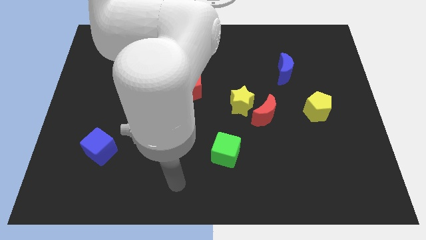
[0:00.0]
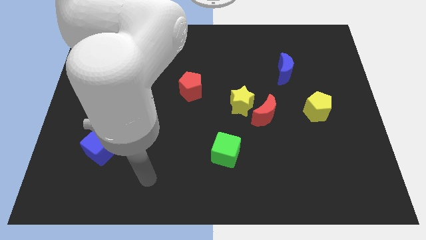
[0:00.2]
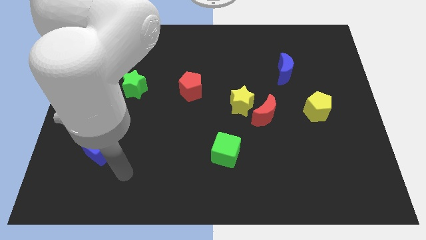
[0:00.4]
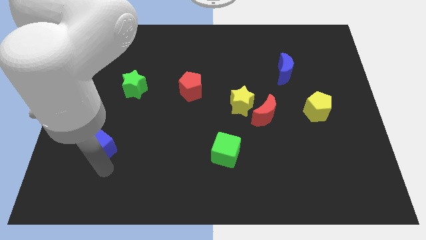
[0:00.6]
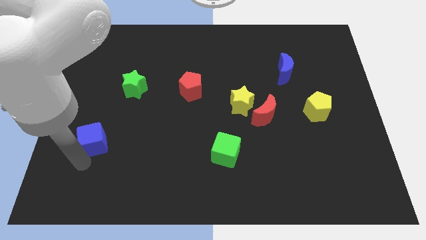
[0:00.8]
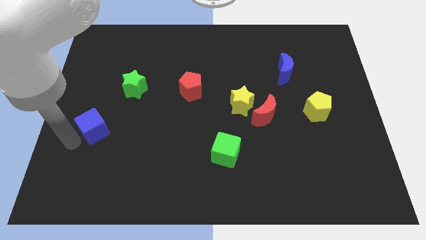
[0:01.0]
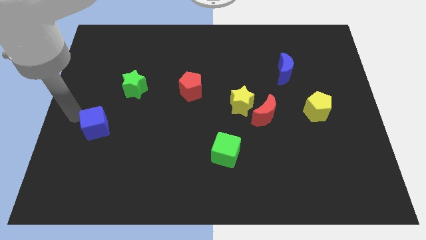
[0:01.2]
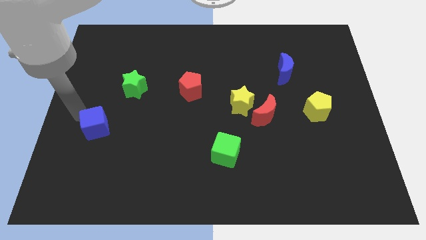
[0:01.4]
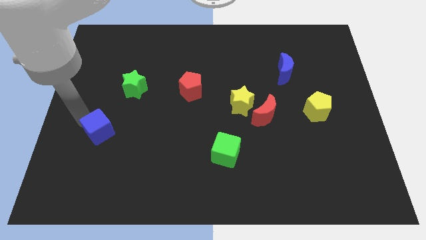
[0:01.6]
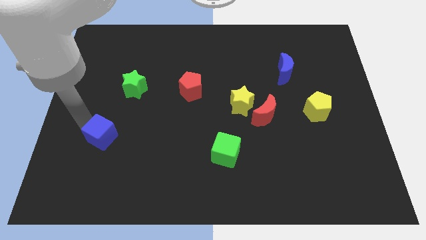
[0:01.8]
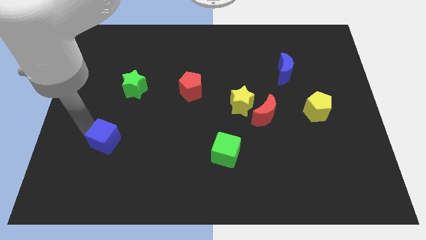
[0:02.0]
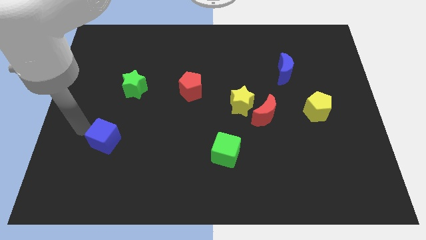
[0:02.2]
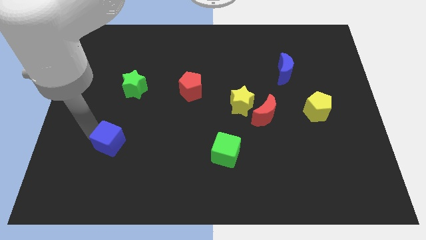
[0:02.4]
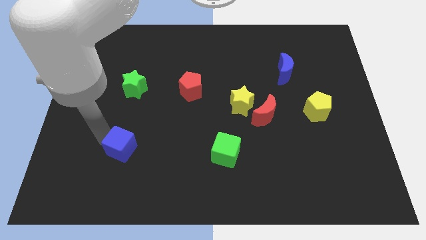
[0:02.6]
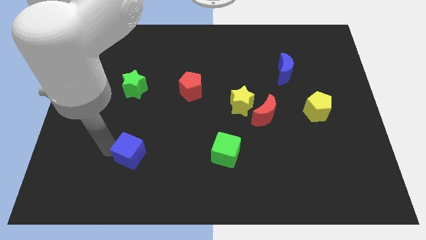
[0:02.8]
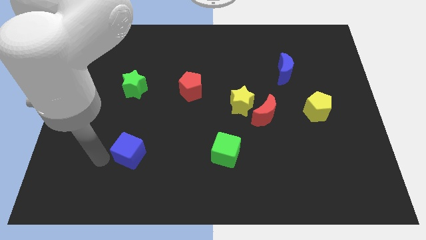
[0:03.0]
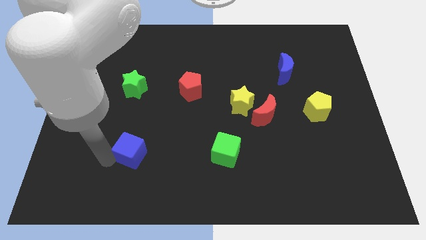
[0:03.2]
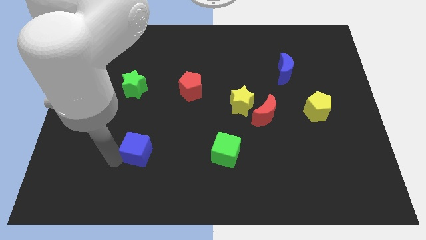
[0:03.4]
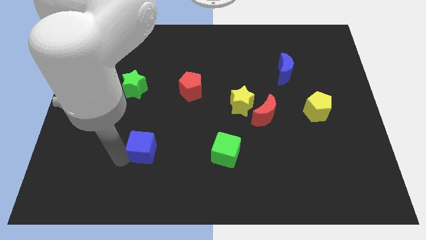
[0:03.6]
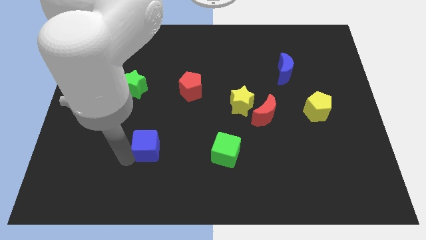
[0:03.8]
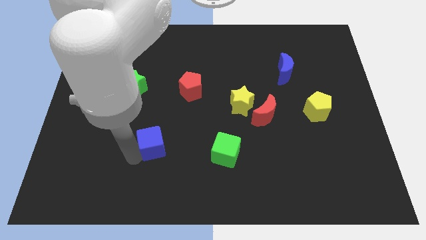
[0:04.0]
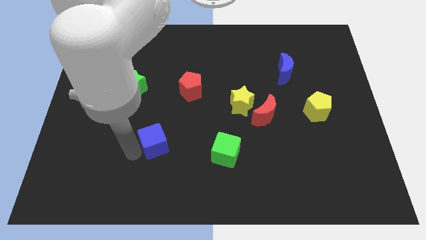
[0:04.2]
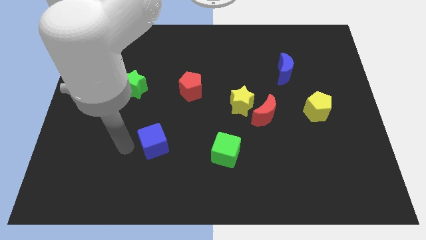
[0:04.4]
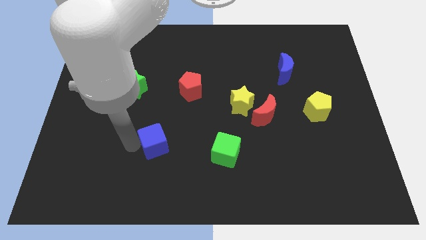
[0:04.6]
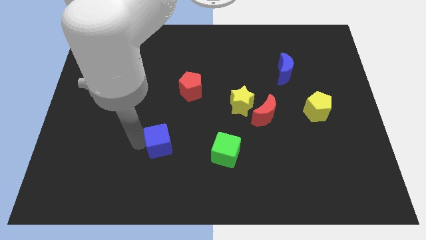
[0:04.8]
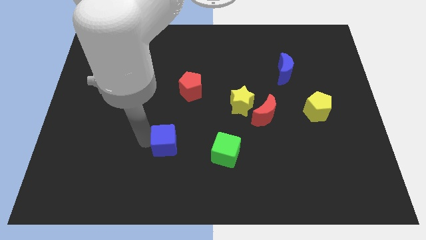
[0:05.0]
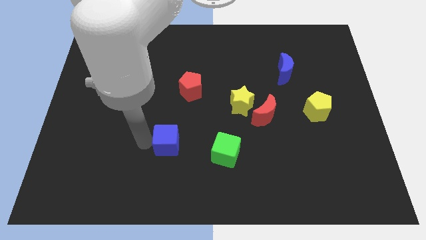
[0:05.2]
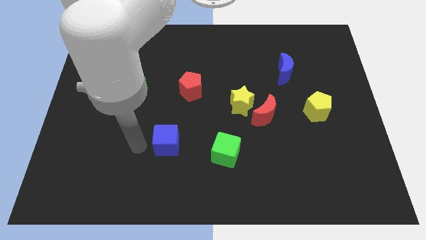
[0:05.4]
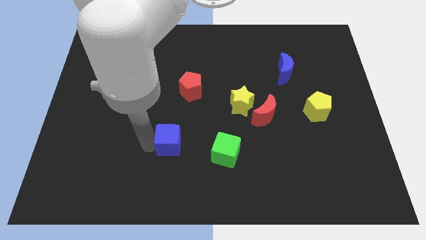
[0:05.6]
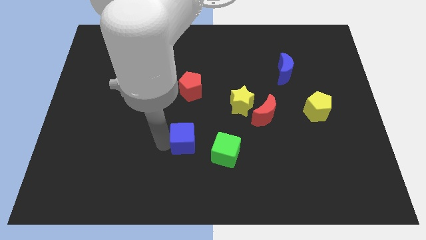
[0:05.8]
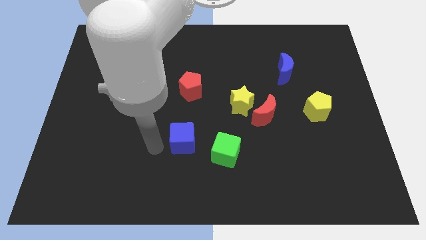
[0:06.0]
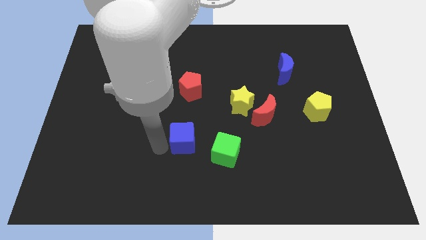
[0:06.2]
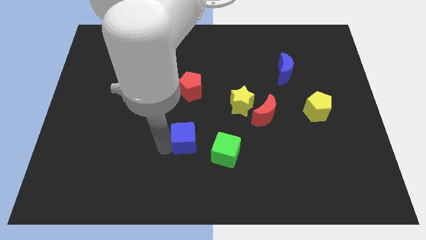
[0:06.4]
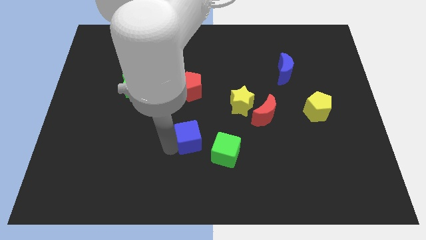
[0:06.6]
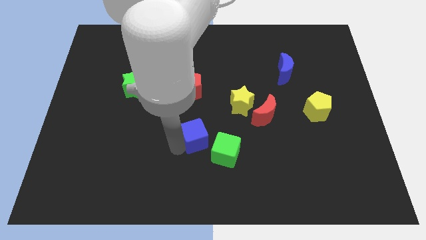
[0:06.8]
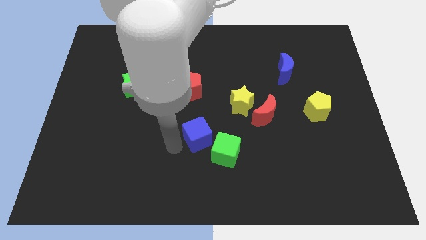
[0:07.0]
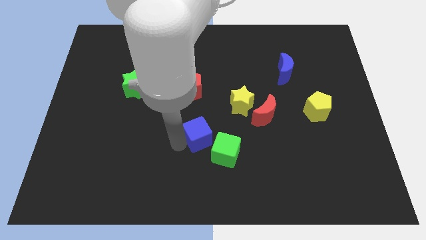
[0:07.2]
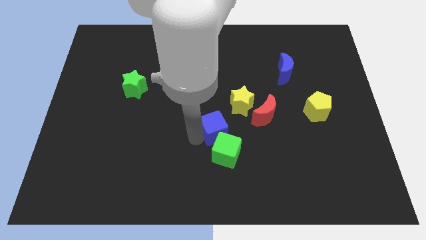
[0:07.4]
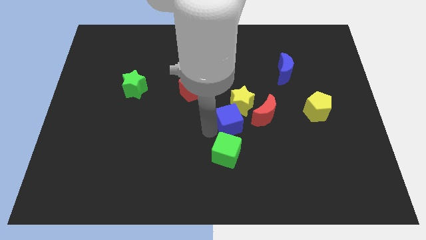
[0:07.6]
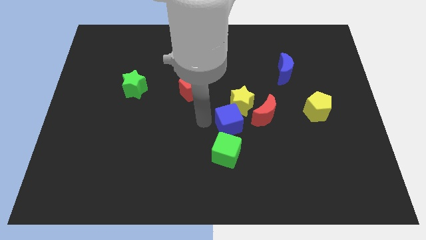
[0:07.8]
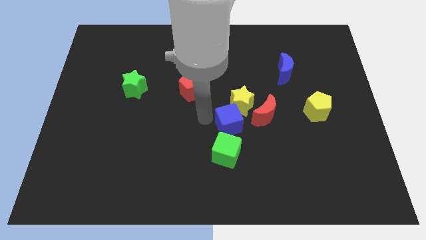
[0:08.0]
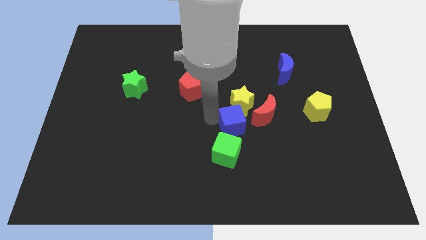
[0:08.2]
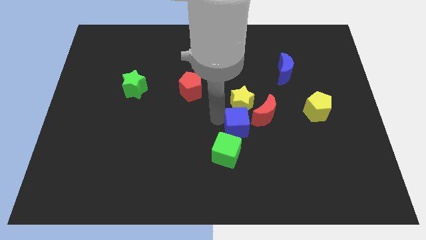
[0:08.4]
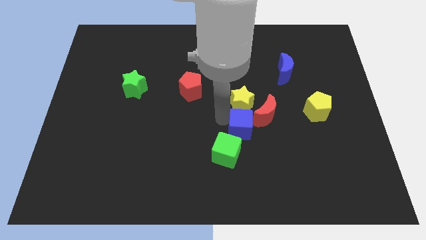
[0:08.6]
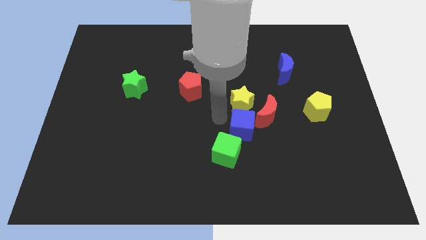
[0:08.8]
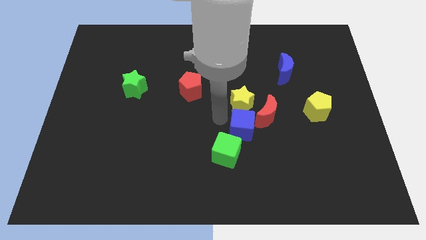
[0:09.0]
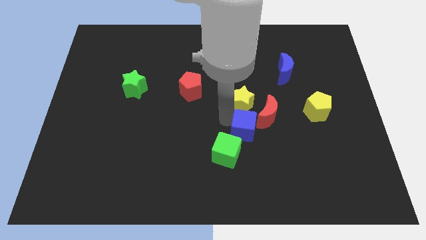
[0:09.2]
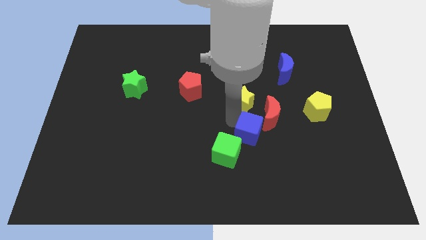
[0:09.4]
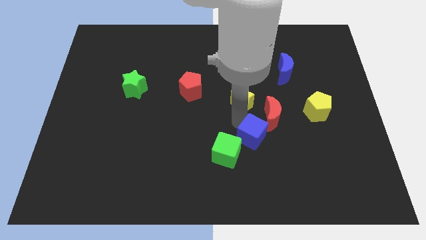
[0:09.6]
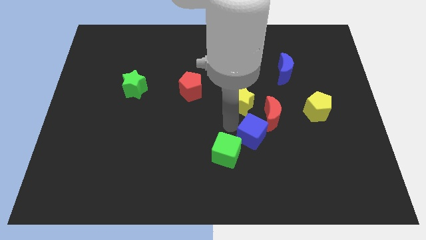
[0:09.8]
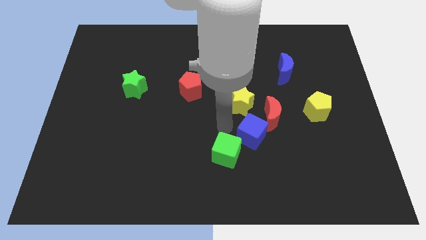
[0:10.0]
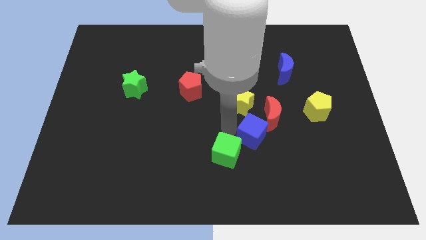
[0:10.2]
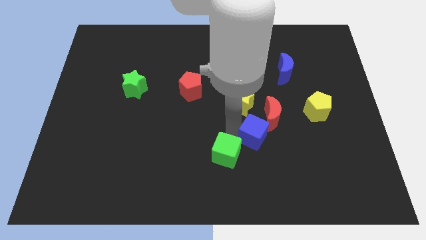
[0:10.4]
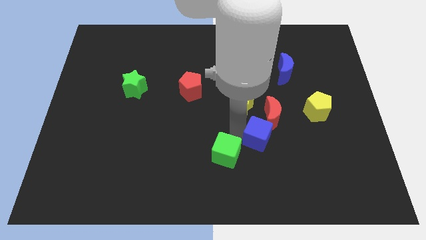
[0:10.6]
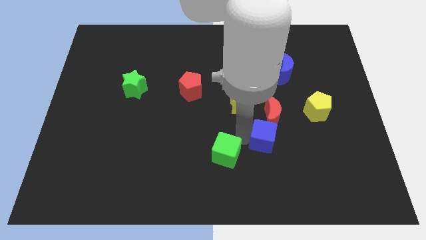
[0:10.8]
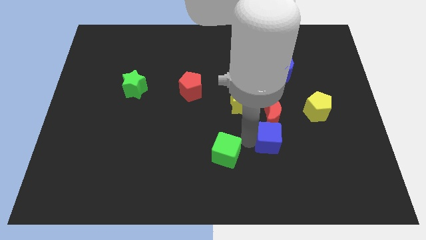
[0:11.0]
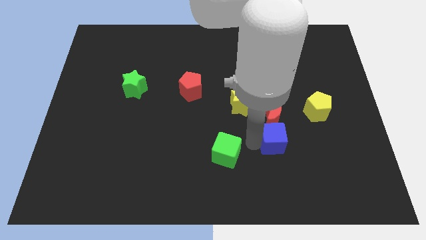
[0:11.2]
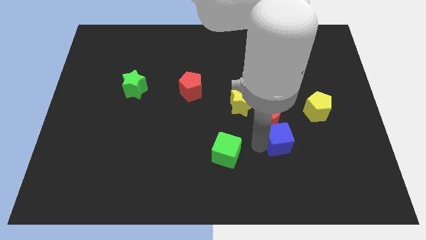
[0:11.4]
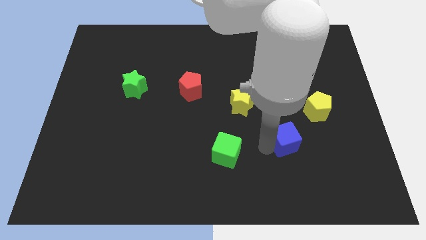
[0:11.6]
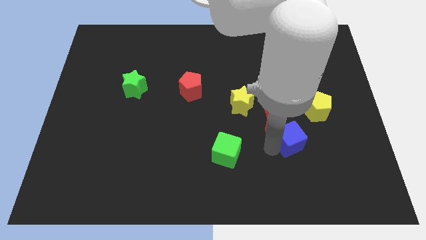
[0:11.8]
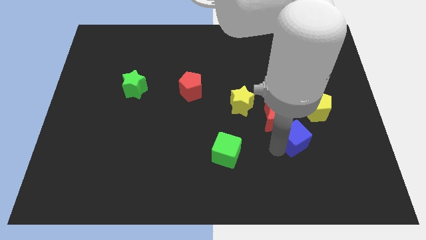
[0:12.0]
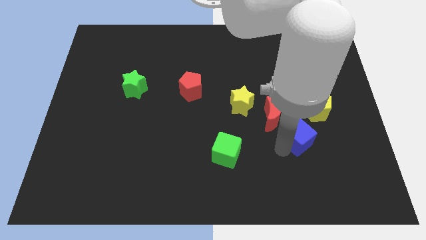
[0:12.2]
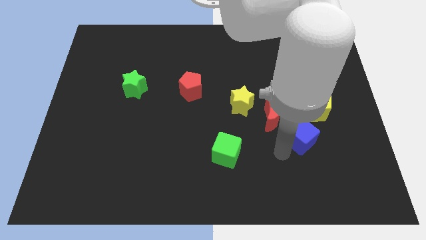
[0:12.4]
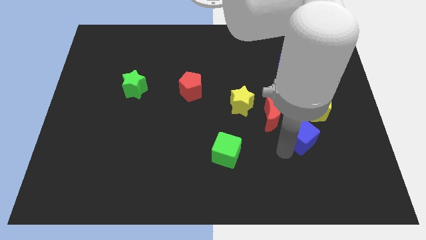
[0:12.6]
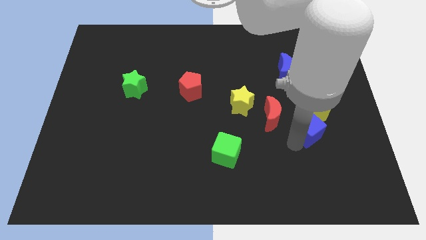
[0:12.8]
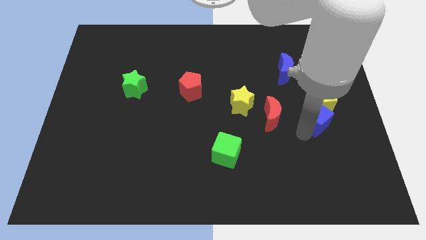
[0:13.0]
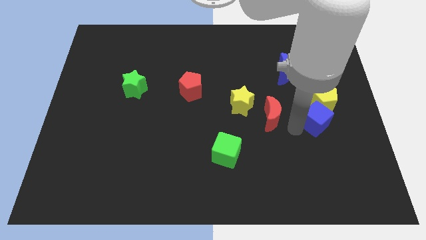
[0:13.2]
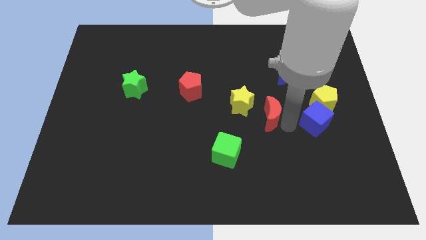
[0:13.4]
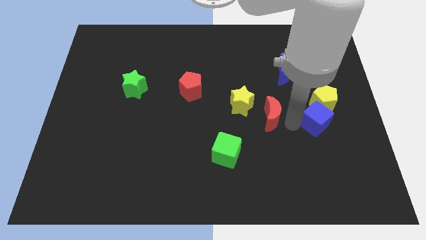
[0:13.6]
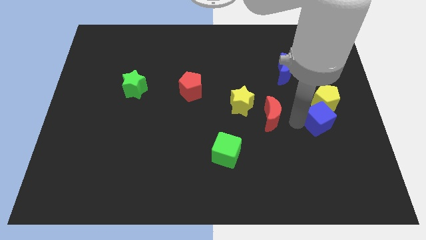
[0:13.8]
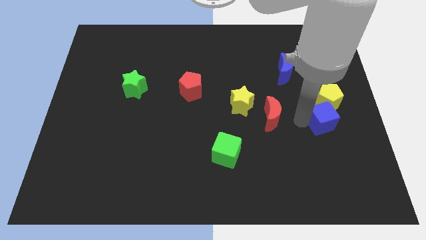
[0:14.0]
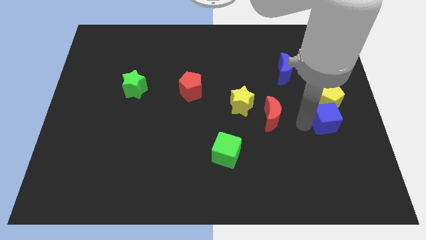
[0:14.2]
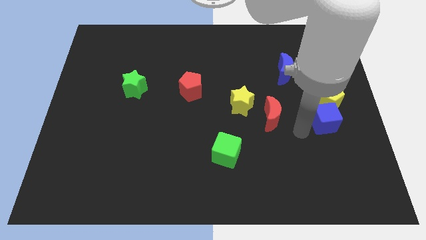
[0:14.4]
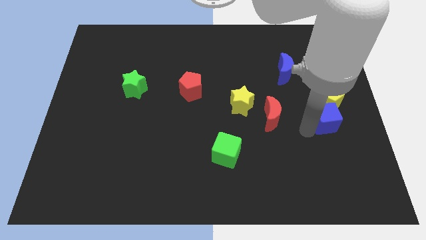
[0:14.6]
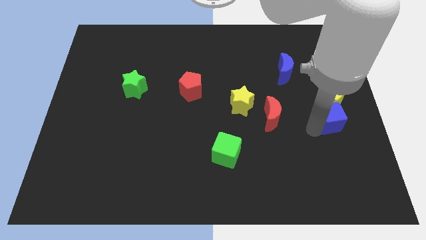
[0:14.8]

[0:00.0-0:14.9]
slide the blue cube to the right side of the board
